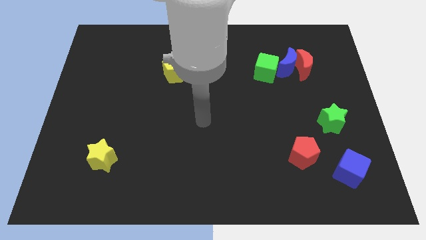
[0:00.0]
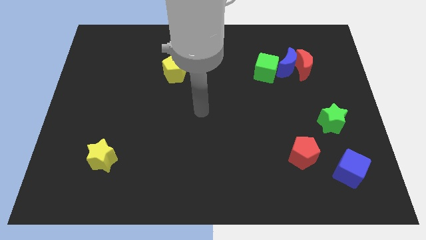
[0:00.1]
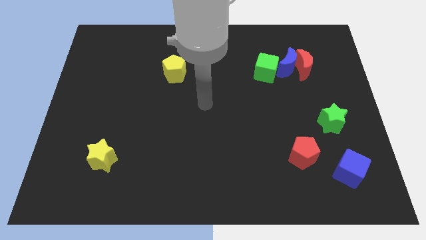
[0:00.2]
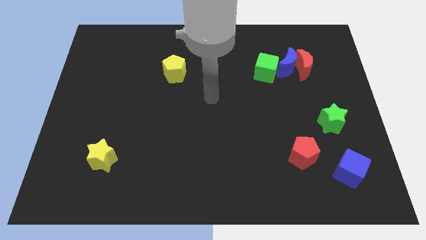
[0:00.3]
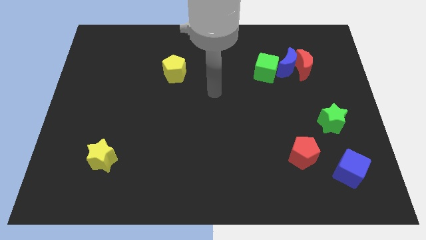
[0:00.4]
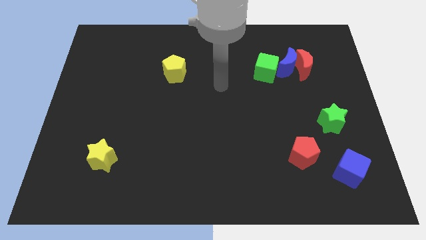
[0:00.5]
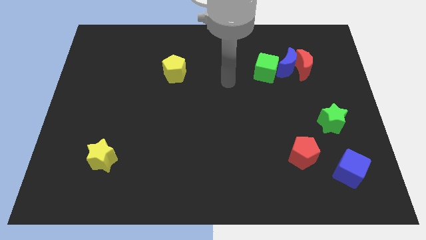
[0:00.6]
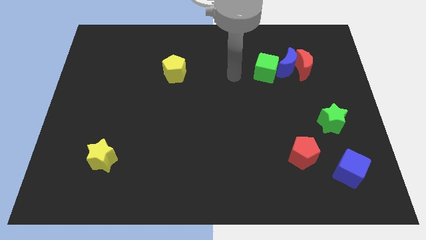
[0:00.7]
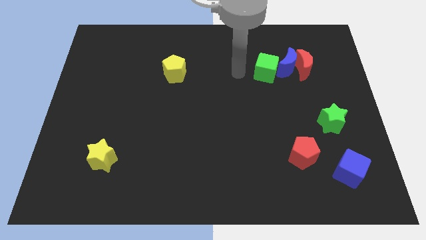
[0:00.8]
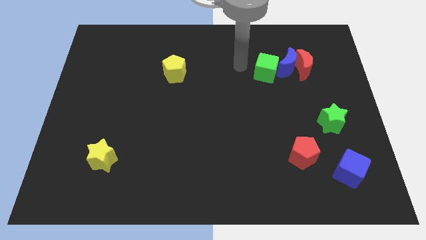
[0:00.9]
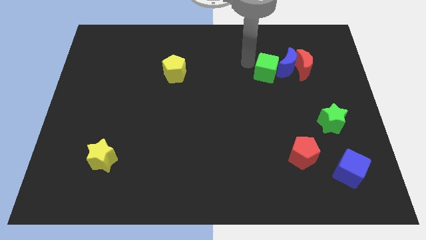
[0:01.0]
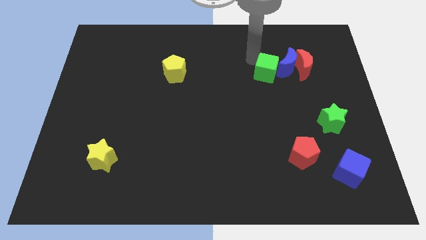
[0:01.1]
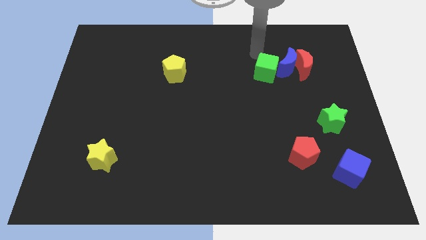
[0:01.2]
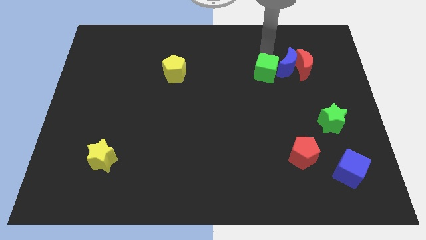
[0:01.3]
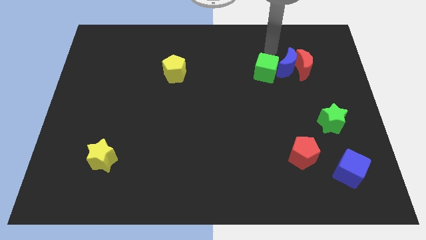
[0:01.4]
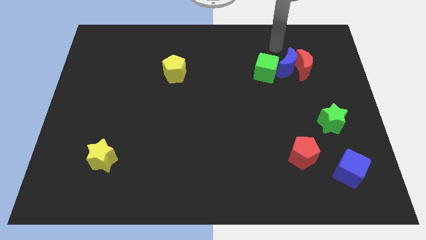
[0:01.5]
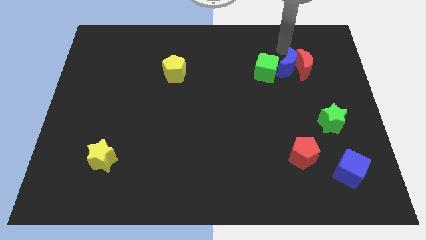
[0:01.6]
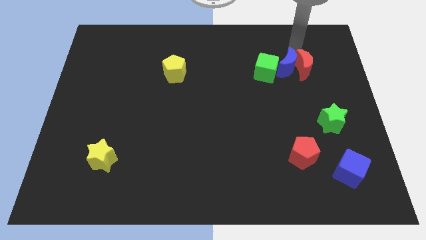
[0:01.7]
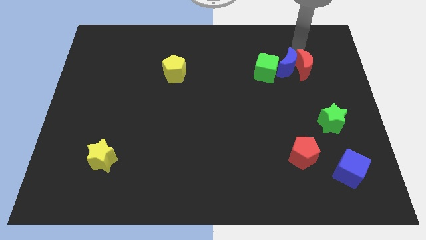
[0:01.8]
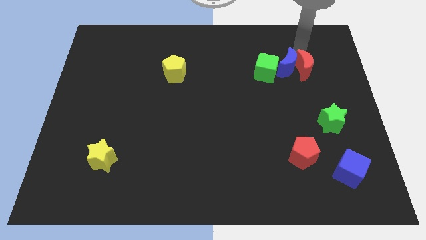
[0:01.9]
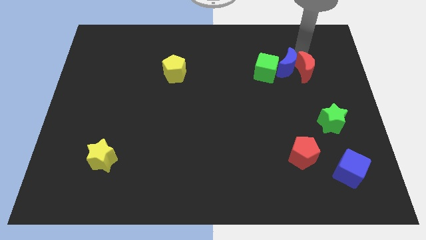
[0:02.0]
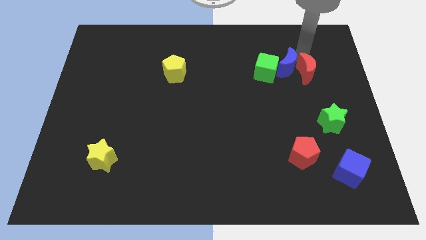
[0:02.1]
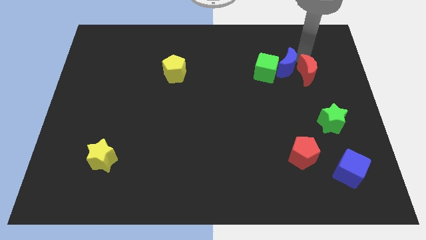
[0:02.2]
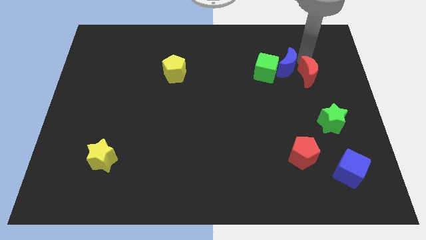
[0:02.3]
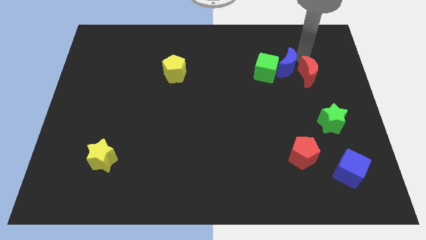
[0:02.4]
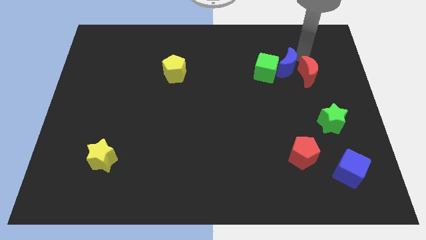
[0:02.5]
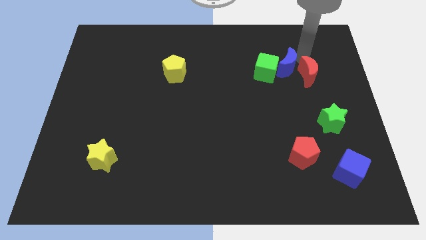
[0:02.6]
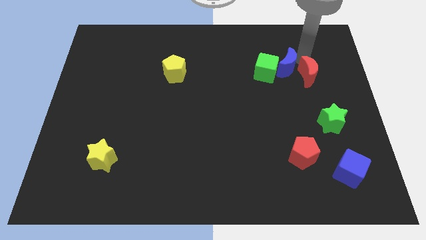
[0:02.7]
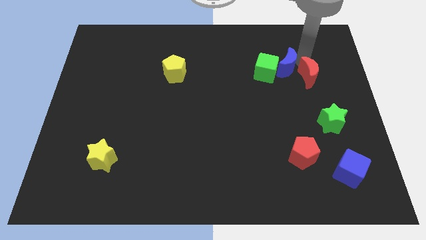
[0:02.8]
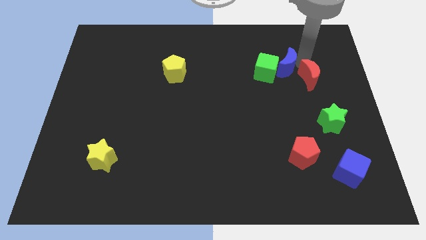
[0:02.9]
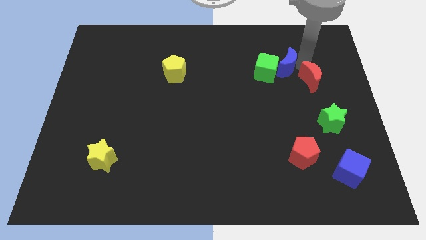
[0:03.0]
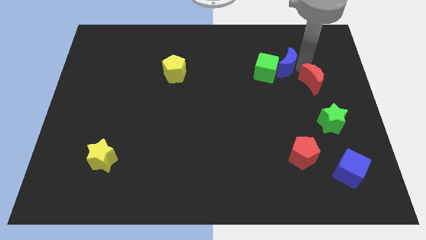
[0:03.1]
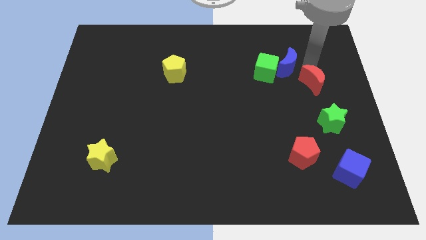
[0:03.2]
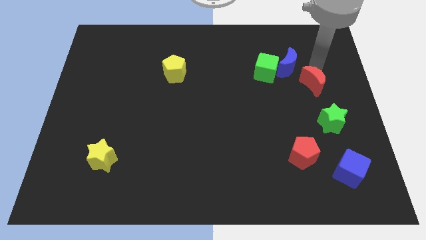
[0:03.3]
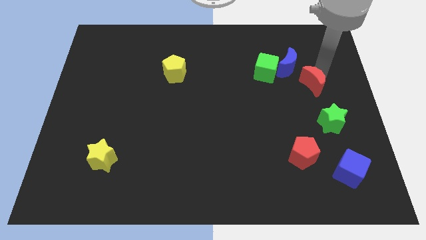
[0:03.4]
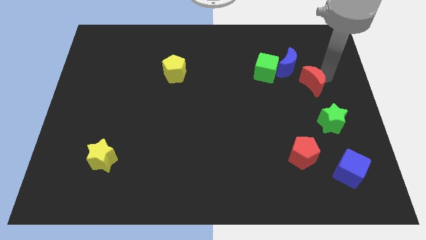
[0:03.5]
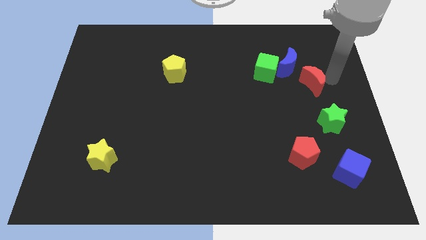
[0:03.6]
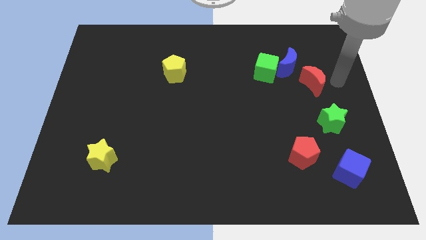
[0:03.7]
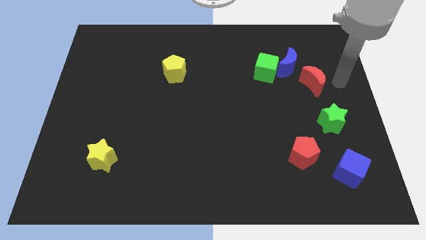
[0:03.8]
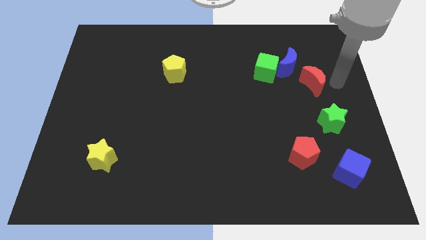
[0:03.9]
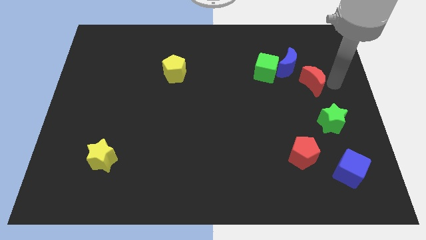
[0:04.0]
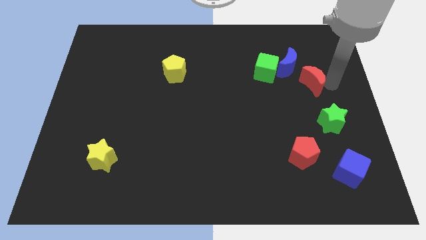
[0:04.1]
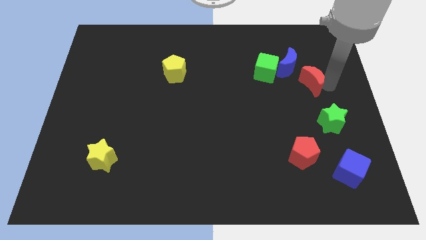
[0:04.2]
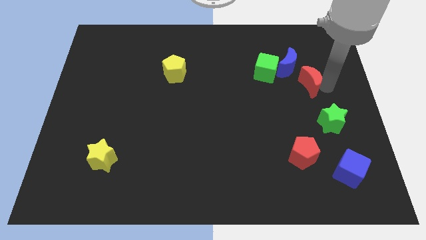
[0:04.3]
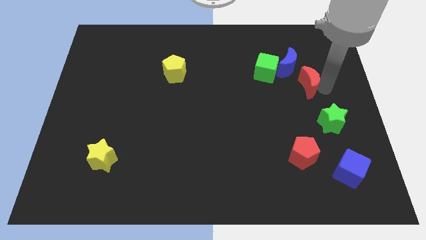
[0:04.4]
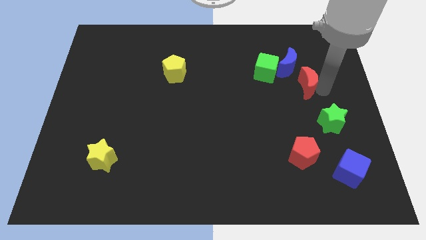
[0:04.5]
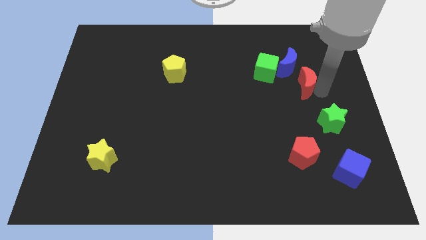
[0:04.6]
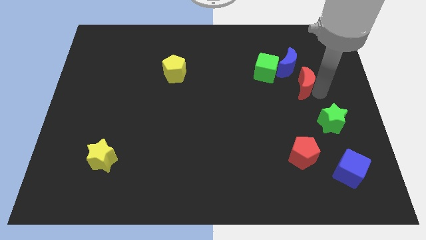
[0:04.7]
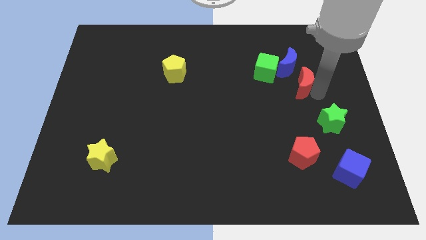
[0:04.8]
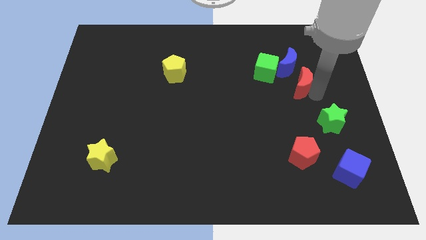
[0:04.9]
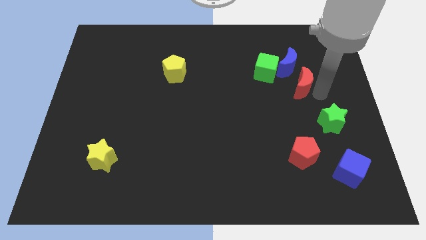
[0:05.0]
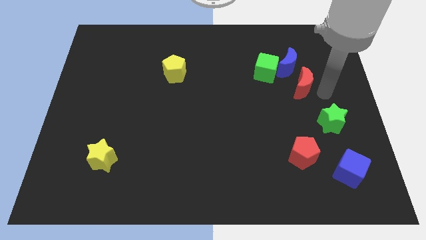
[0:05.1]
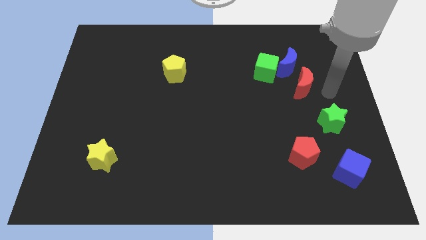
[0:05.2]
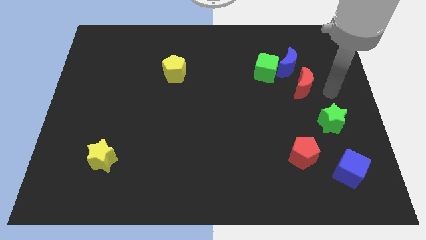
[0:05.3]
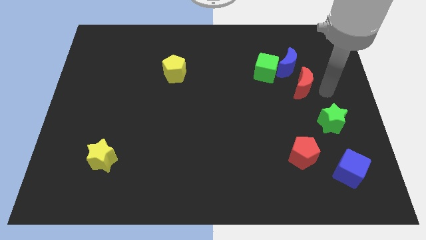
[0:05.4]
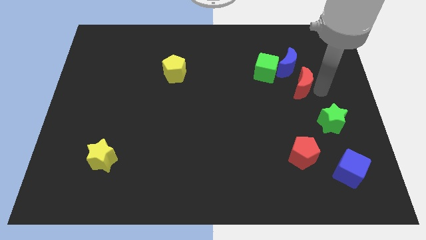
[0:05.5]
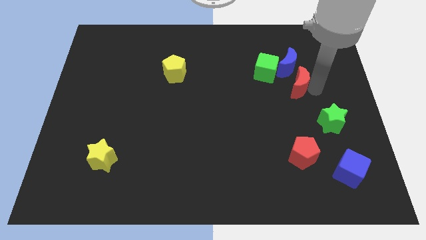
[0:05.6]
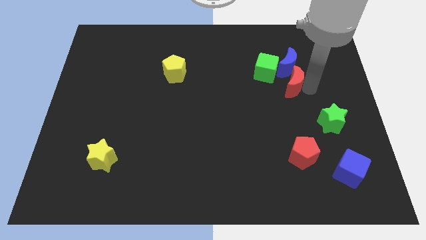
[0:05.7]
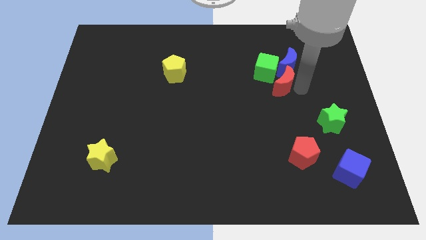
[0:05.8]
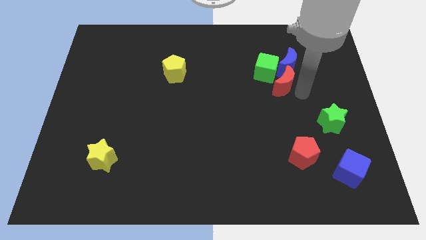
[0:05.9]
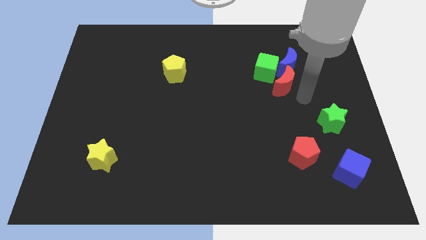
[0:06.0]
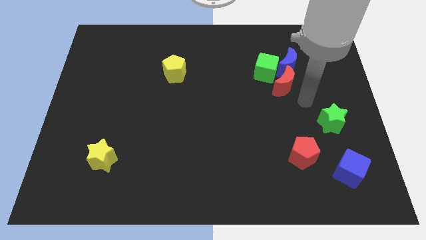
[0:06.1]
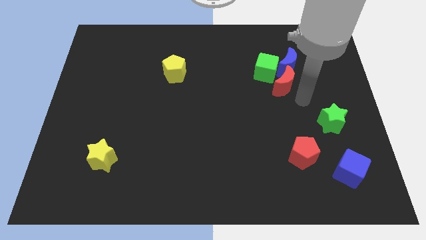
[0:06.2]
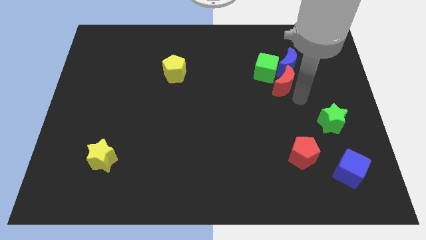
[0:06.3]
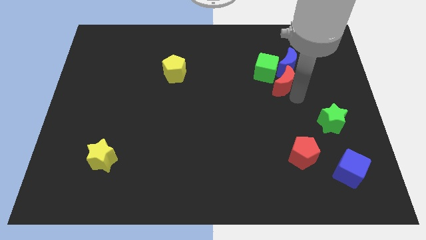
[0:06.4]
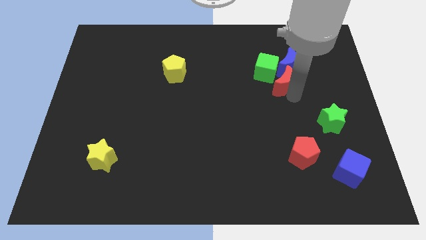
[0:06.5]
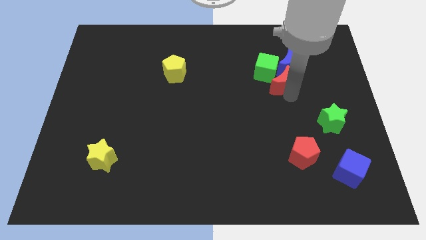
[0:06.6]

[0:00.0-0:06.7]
put the red moon to the green cube

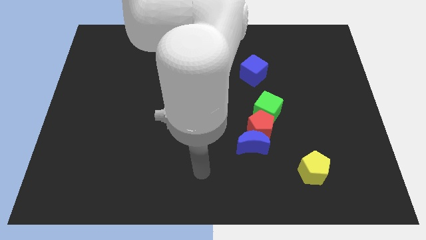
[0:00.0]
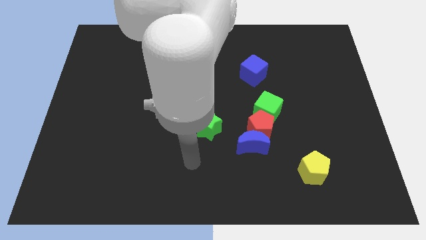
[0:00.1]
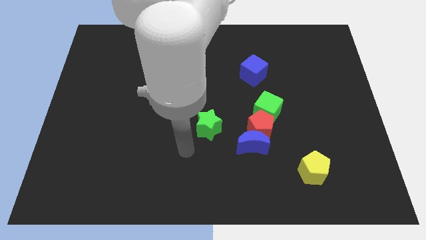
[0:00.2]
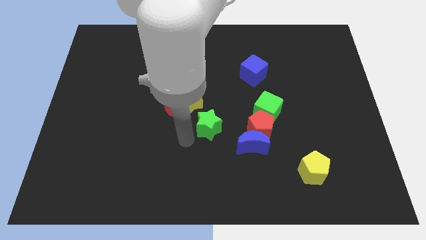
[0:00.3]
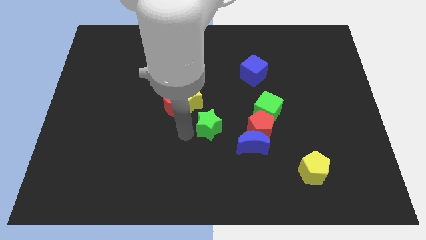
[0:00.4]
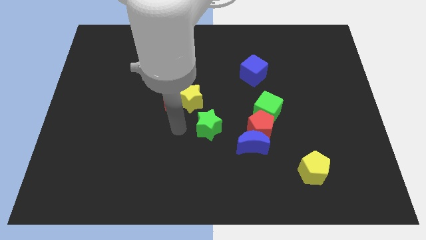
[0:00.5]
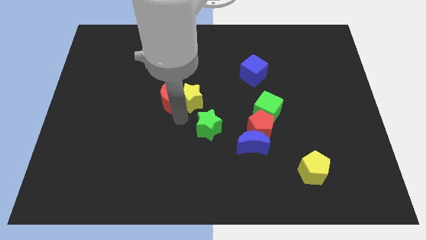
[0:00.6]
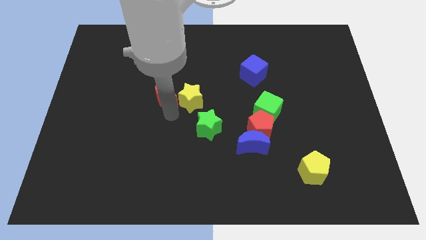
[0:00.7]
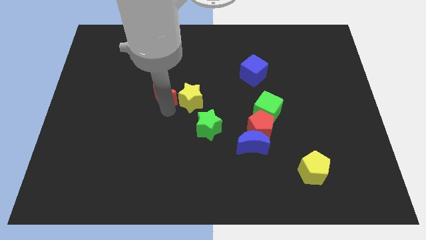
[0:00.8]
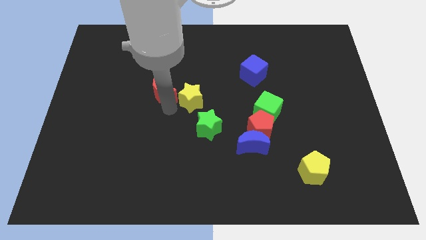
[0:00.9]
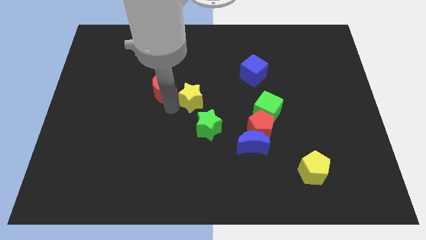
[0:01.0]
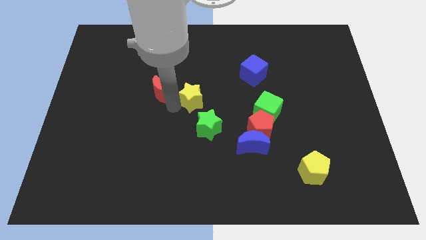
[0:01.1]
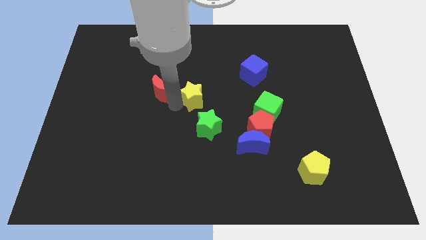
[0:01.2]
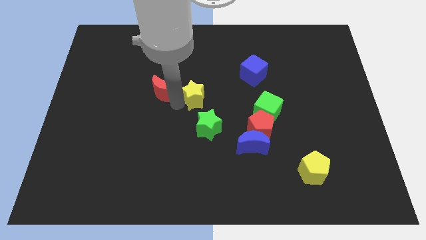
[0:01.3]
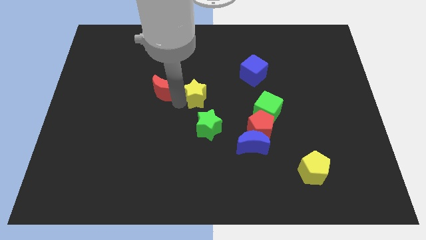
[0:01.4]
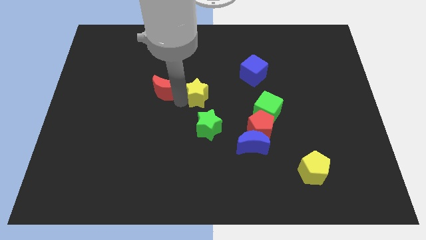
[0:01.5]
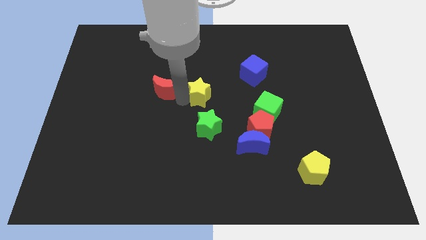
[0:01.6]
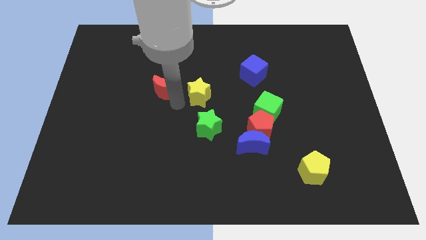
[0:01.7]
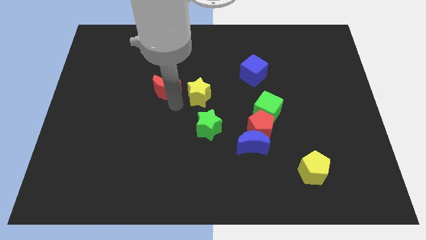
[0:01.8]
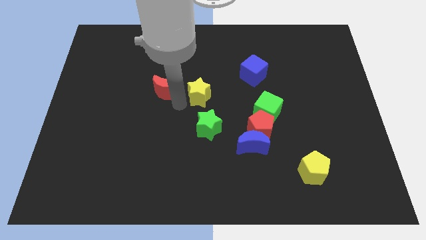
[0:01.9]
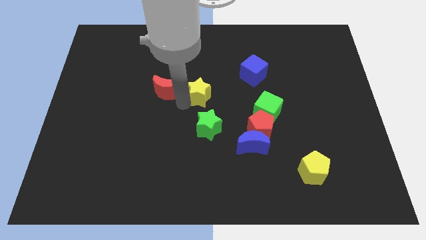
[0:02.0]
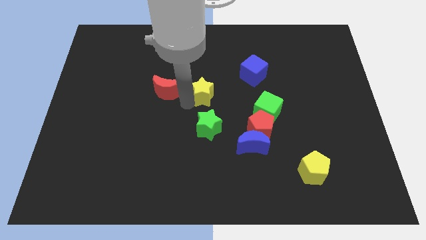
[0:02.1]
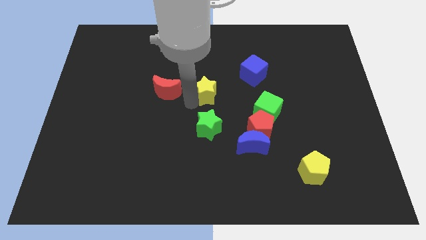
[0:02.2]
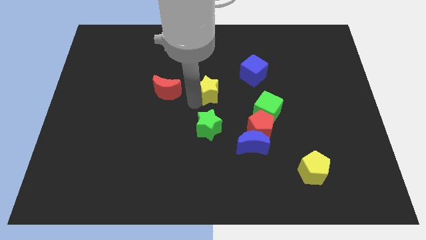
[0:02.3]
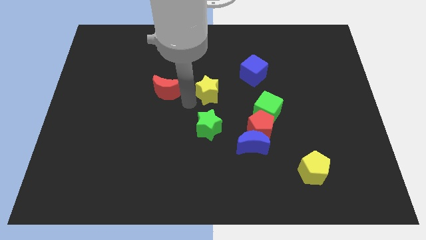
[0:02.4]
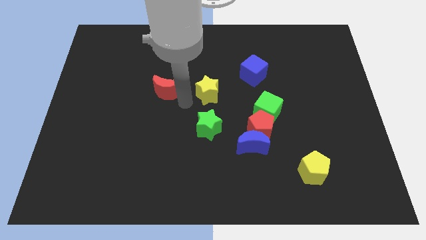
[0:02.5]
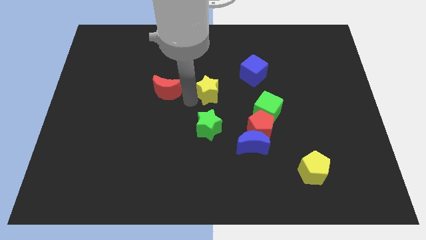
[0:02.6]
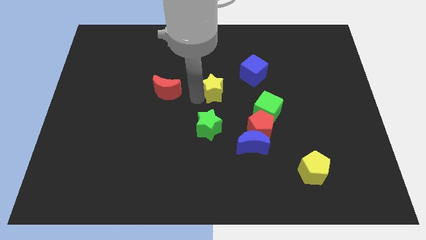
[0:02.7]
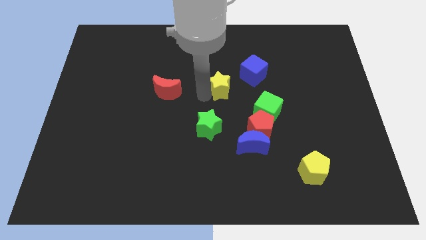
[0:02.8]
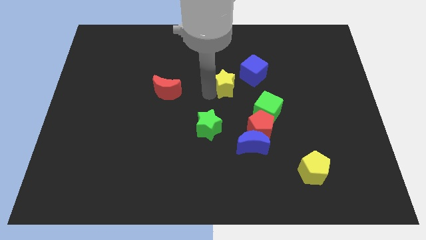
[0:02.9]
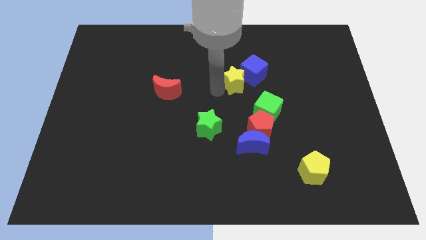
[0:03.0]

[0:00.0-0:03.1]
put the yellow star to the blue cube
